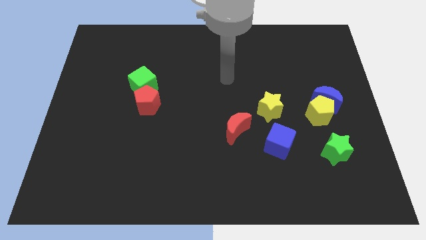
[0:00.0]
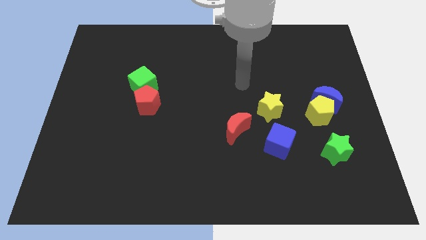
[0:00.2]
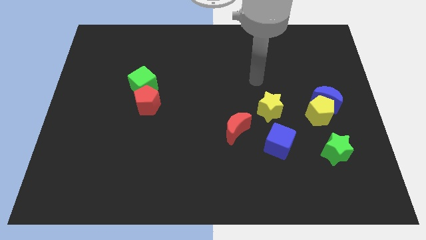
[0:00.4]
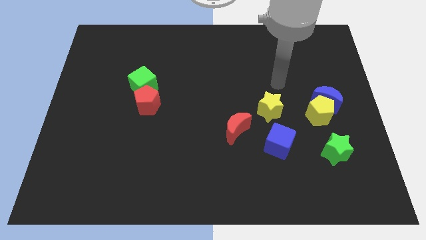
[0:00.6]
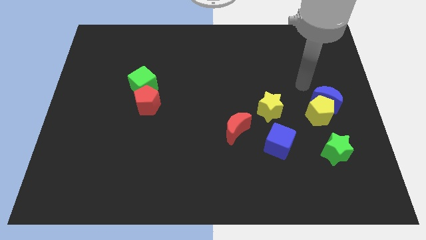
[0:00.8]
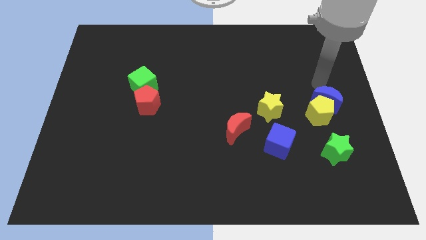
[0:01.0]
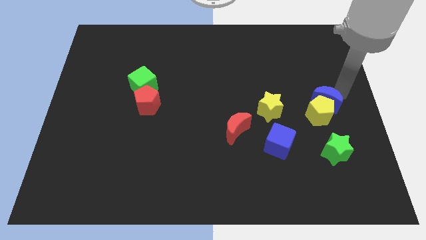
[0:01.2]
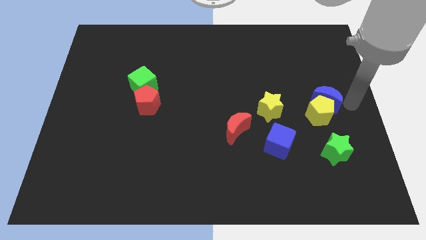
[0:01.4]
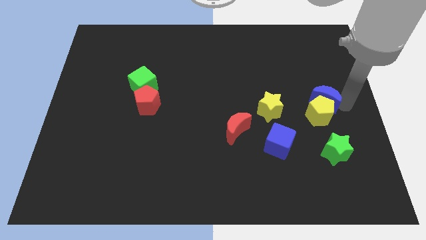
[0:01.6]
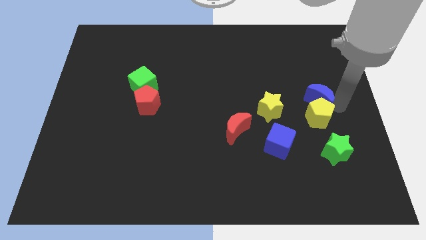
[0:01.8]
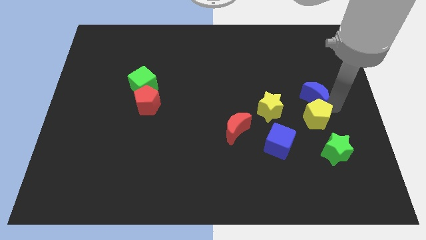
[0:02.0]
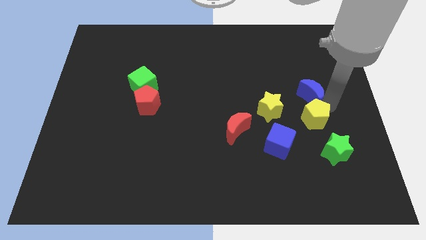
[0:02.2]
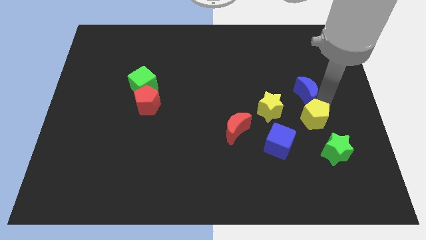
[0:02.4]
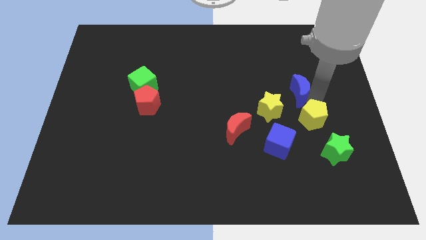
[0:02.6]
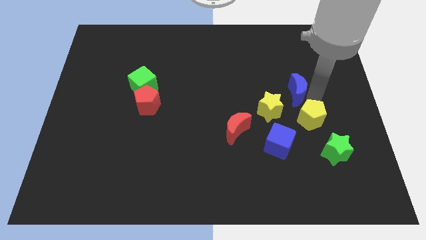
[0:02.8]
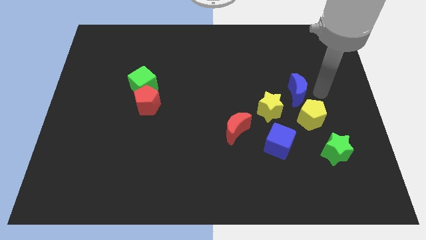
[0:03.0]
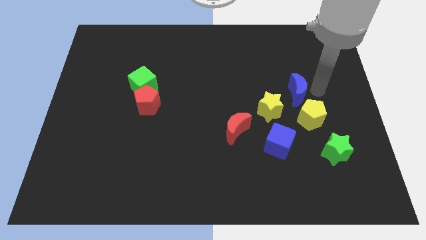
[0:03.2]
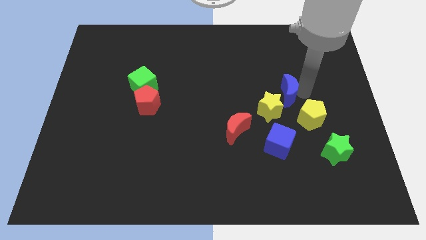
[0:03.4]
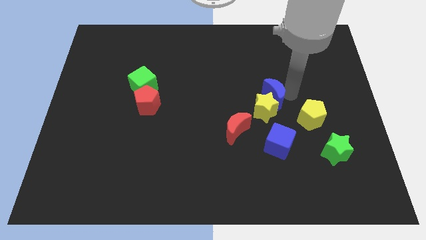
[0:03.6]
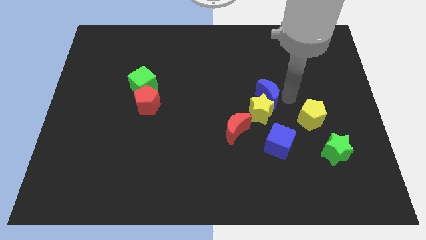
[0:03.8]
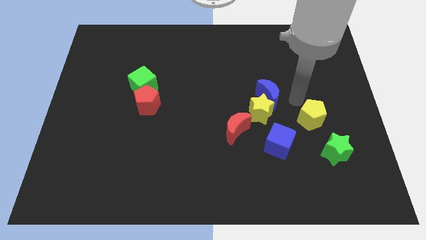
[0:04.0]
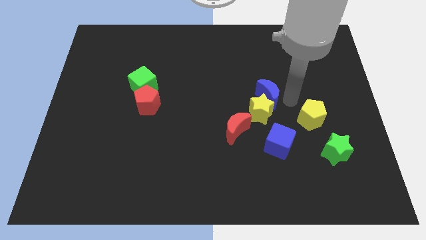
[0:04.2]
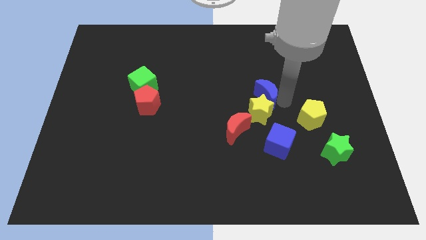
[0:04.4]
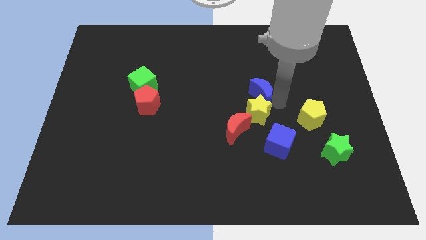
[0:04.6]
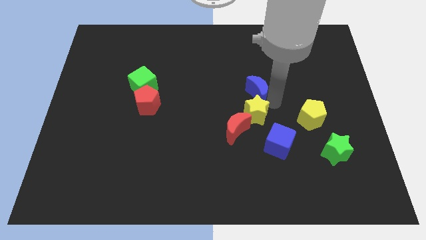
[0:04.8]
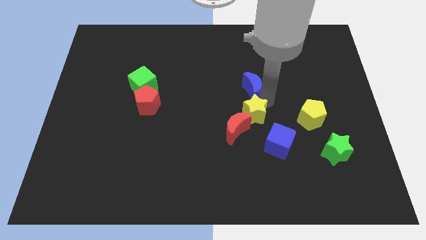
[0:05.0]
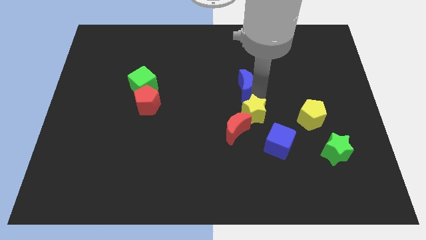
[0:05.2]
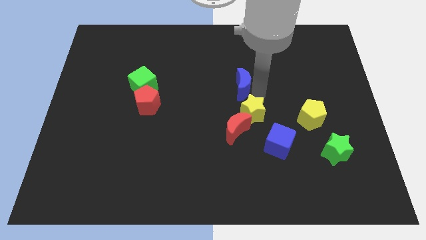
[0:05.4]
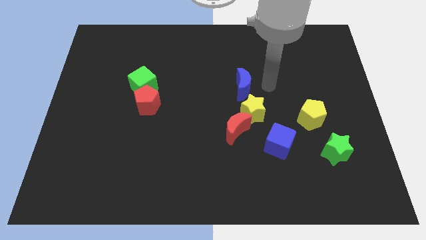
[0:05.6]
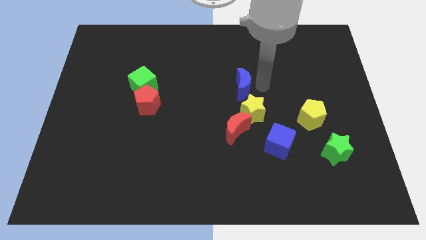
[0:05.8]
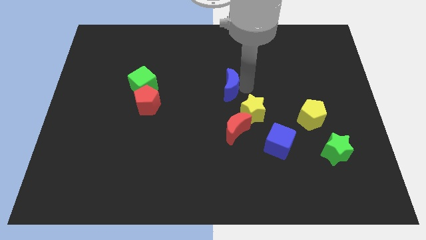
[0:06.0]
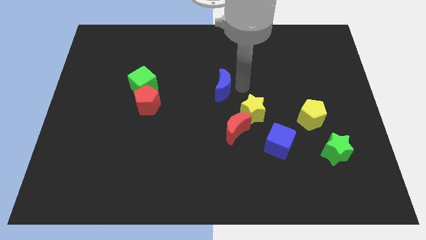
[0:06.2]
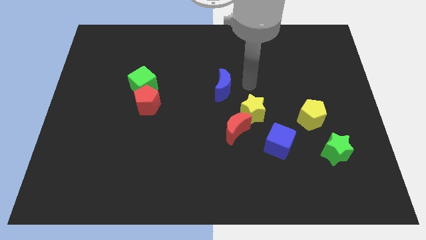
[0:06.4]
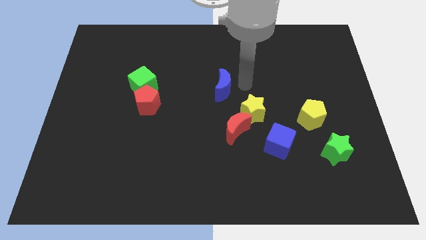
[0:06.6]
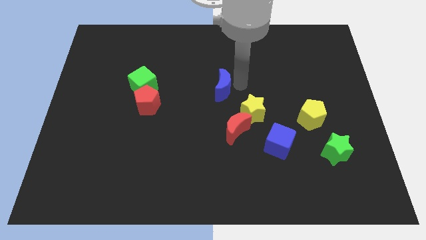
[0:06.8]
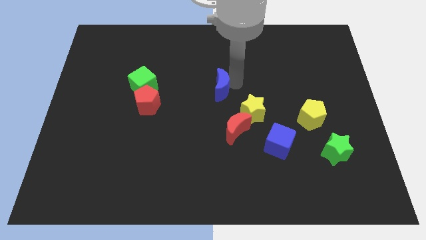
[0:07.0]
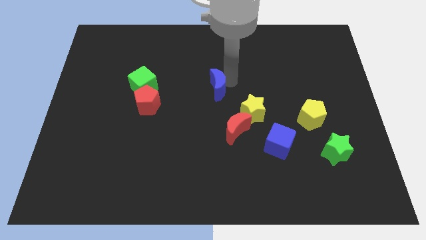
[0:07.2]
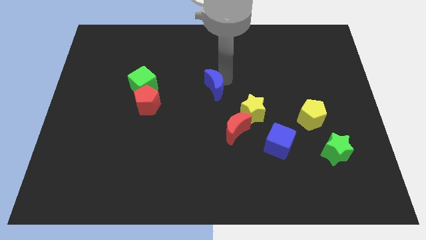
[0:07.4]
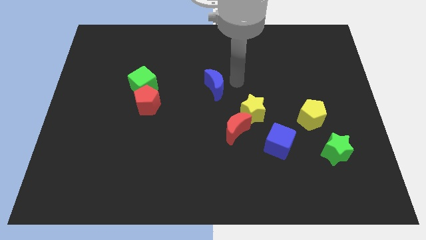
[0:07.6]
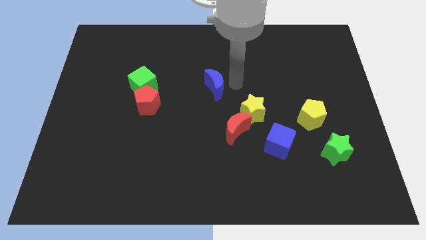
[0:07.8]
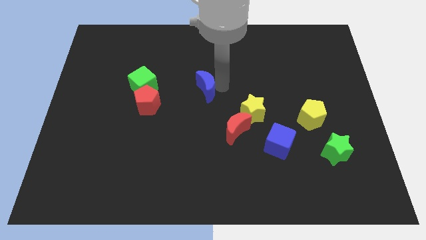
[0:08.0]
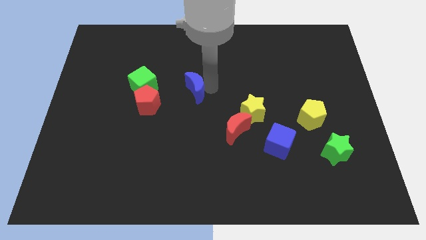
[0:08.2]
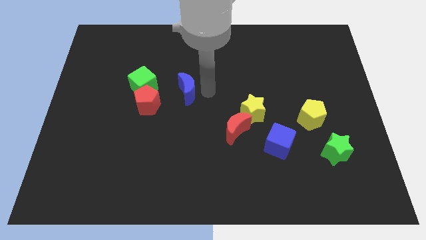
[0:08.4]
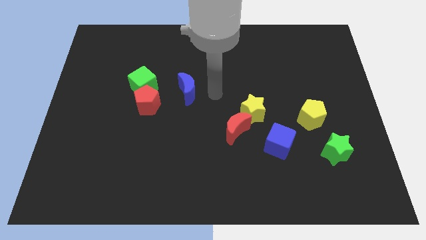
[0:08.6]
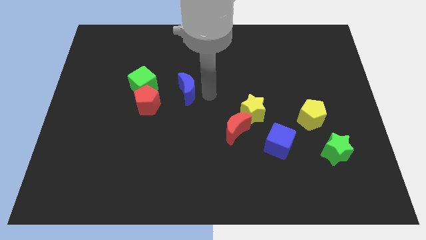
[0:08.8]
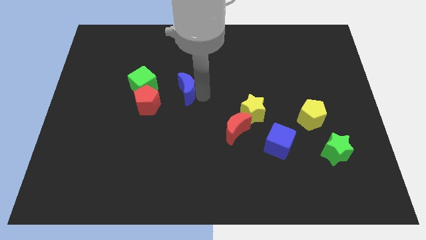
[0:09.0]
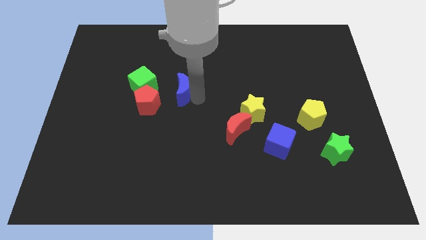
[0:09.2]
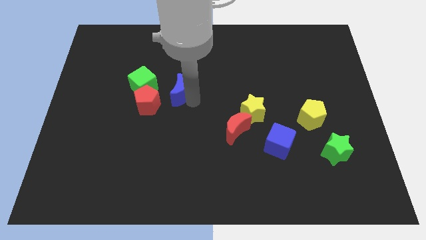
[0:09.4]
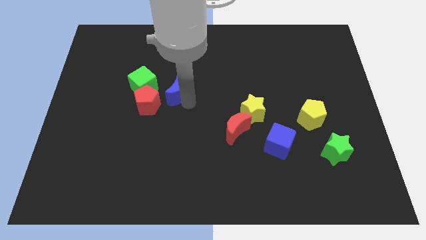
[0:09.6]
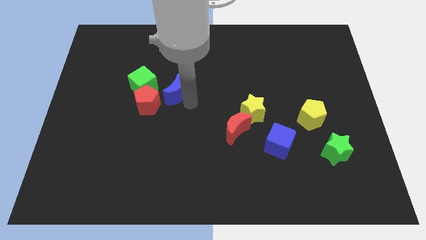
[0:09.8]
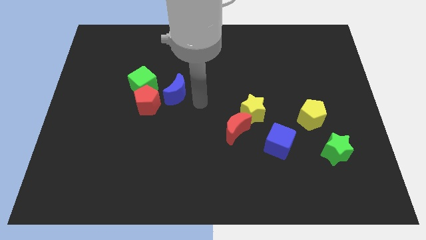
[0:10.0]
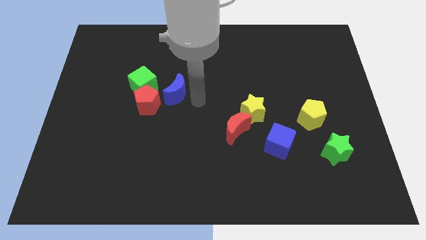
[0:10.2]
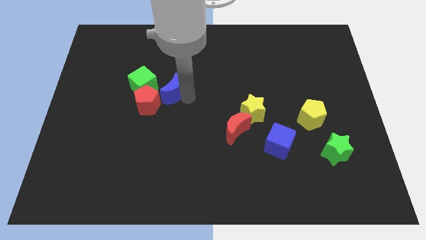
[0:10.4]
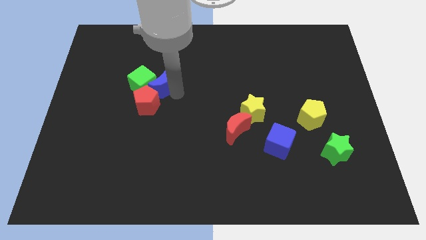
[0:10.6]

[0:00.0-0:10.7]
put the blue moon to the green cube

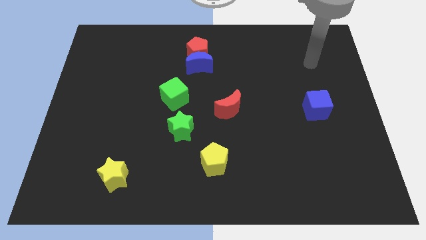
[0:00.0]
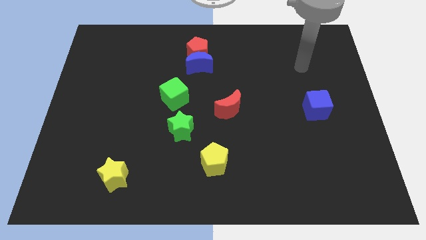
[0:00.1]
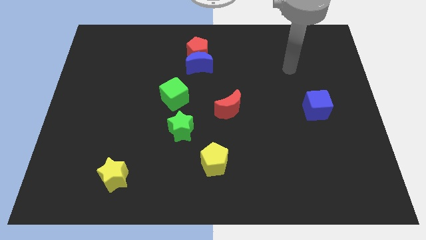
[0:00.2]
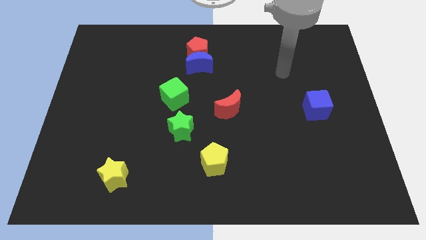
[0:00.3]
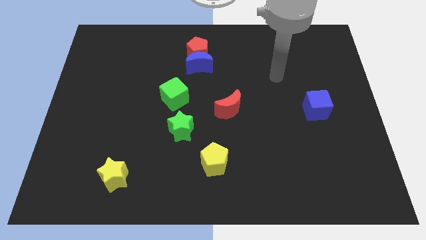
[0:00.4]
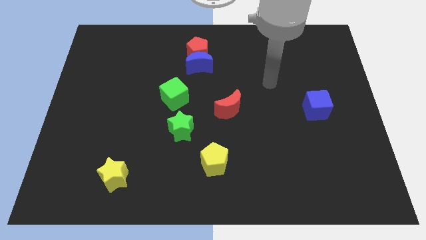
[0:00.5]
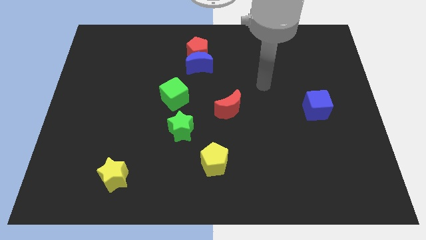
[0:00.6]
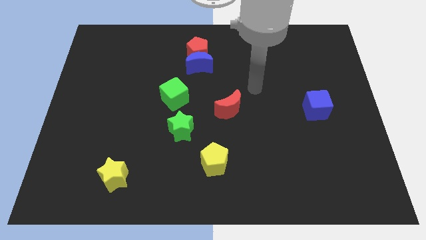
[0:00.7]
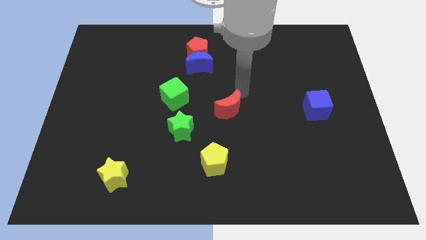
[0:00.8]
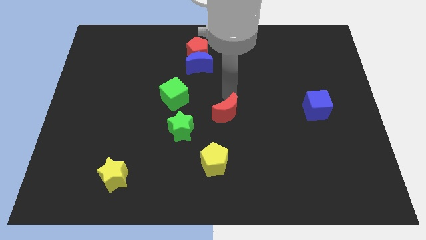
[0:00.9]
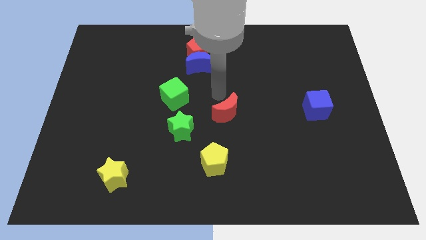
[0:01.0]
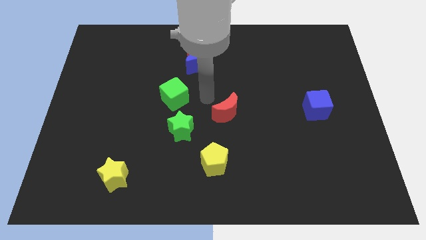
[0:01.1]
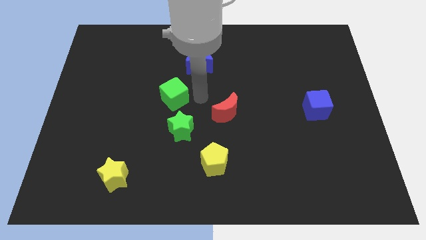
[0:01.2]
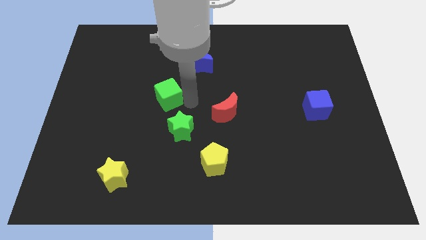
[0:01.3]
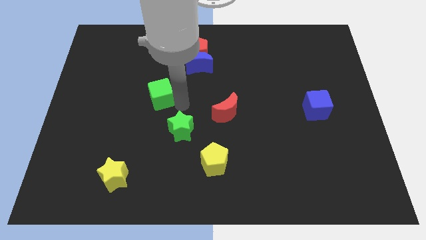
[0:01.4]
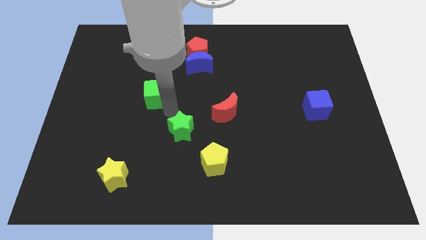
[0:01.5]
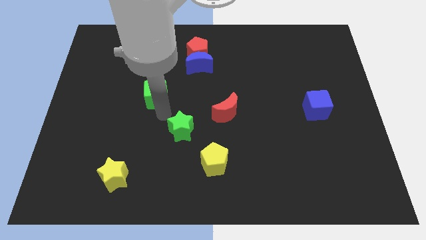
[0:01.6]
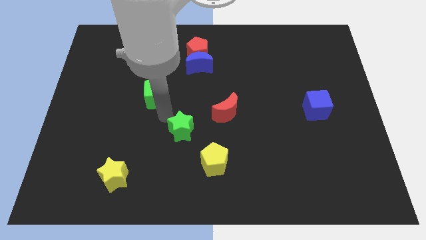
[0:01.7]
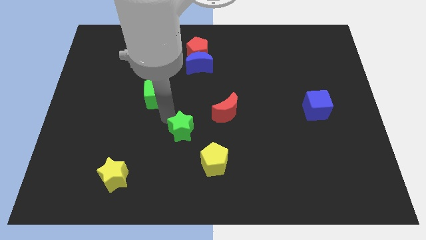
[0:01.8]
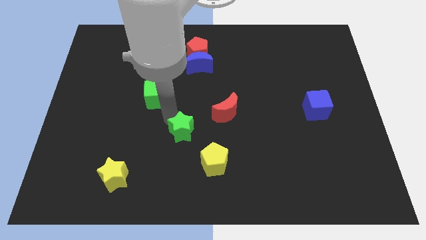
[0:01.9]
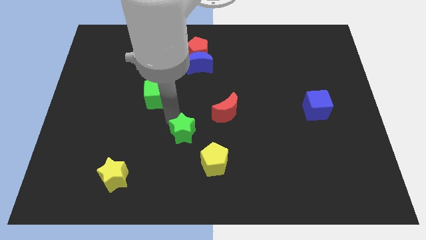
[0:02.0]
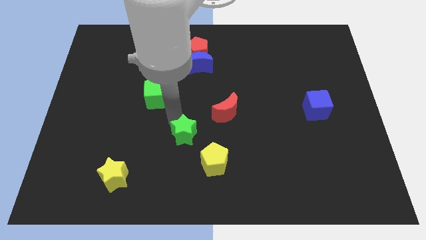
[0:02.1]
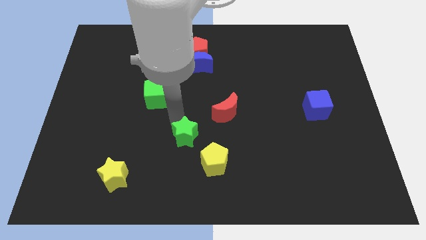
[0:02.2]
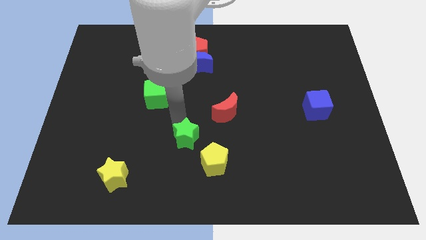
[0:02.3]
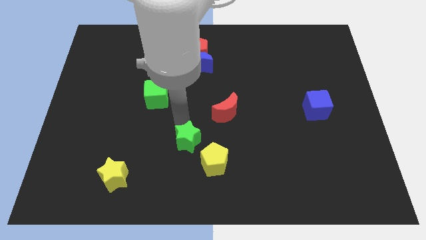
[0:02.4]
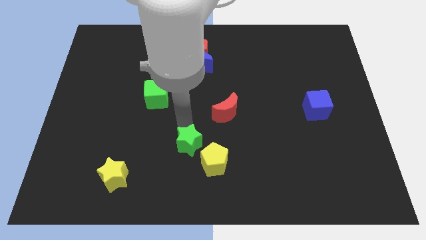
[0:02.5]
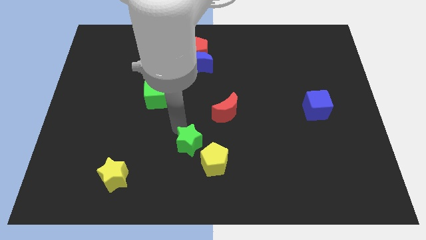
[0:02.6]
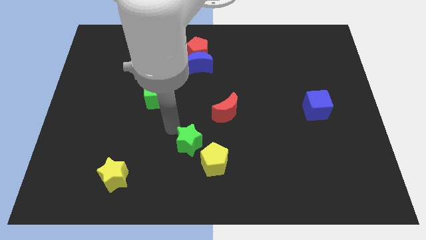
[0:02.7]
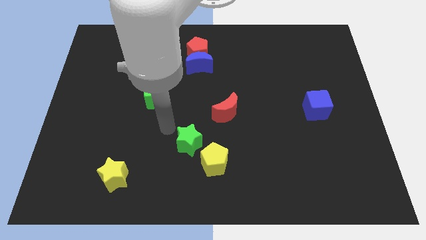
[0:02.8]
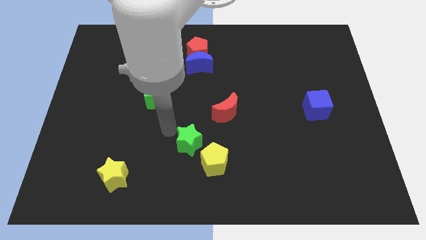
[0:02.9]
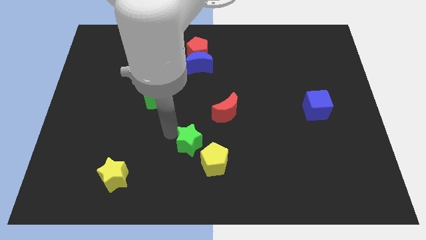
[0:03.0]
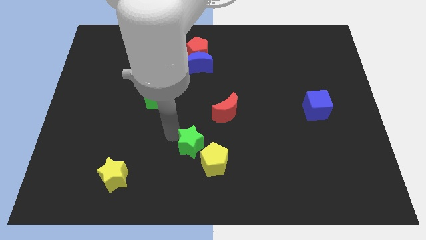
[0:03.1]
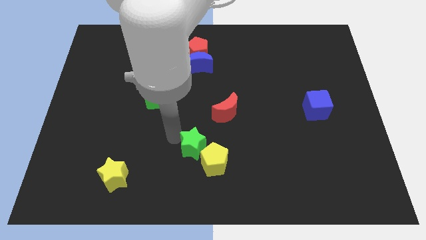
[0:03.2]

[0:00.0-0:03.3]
move the green star to the yellow pentagon
